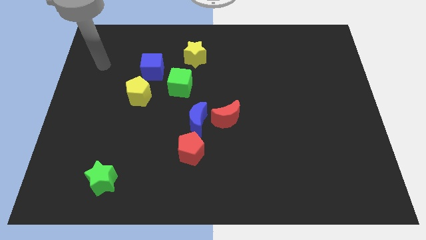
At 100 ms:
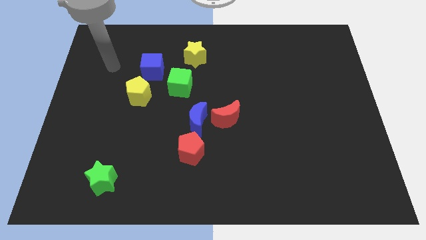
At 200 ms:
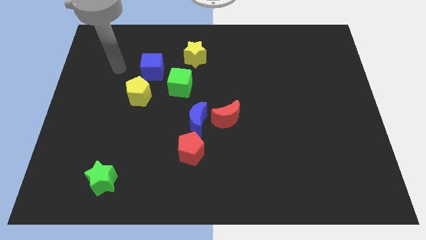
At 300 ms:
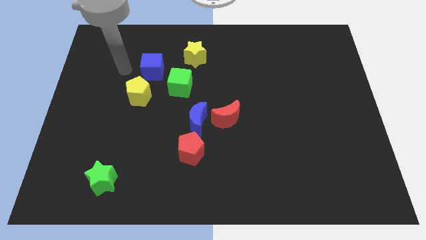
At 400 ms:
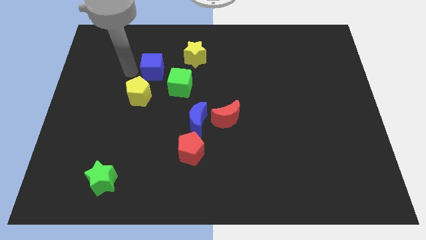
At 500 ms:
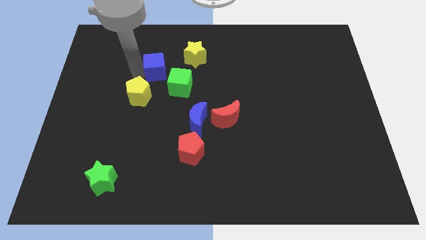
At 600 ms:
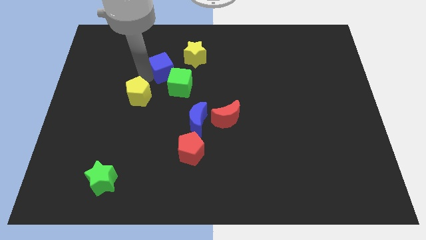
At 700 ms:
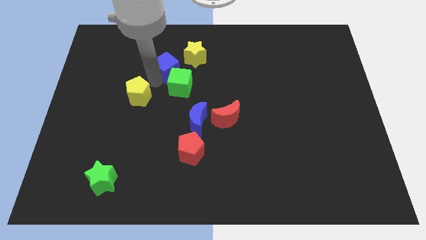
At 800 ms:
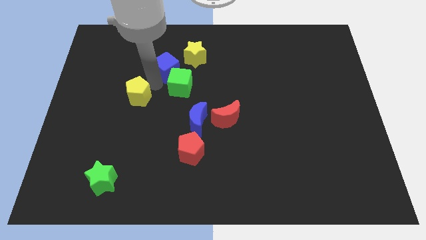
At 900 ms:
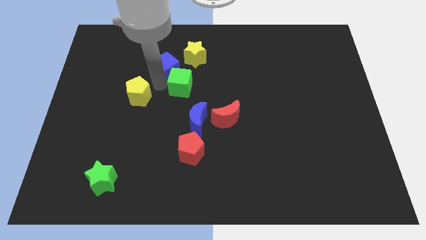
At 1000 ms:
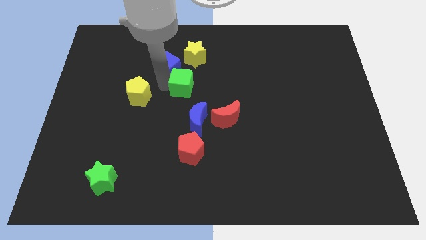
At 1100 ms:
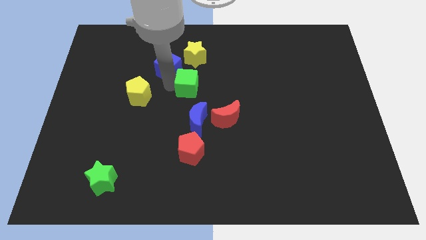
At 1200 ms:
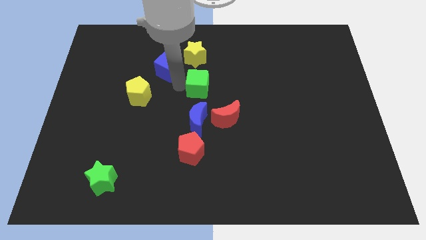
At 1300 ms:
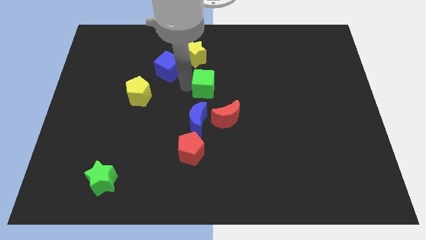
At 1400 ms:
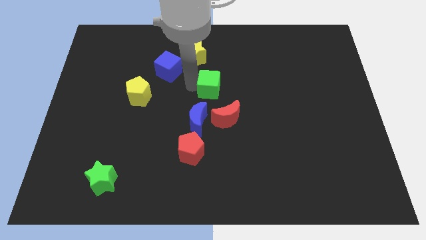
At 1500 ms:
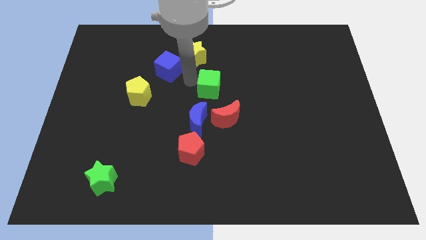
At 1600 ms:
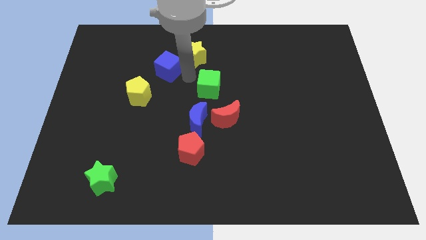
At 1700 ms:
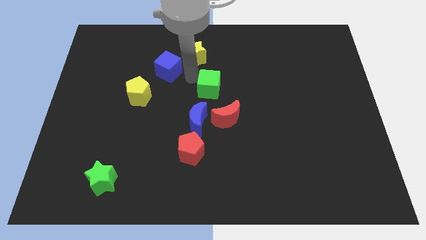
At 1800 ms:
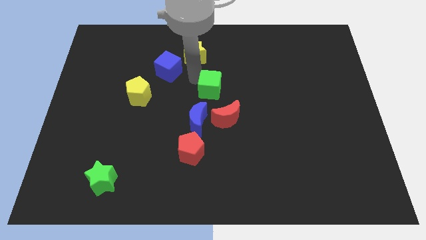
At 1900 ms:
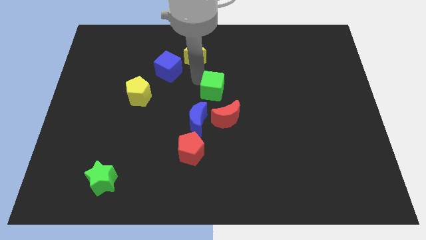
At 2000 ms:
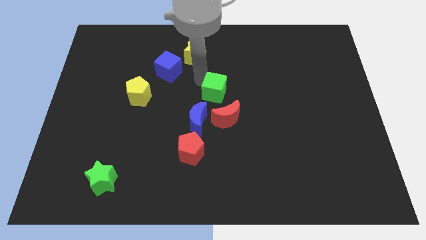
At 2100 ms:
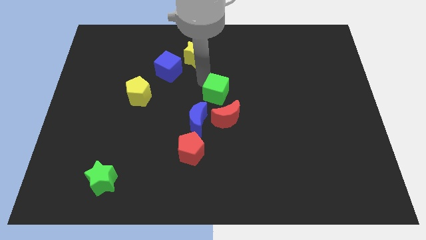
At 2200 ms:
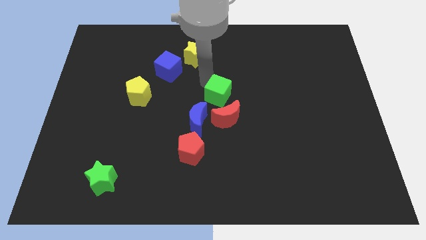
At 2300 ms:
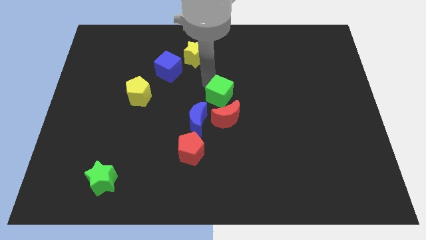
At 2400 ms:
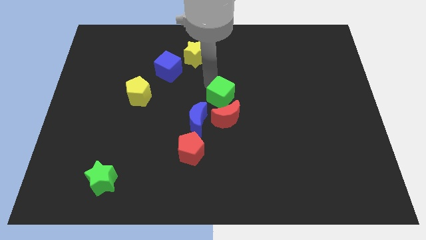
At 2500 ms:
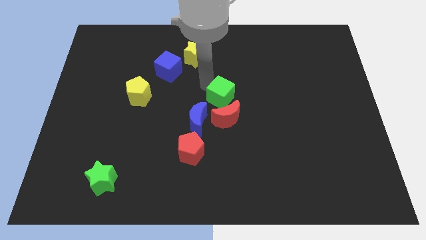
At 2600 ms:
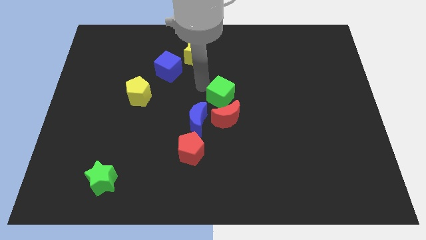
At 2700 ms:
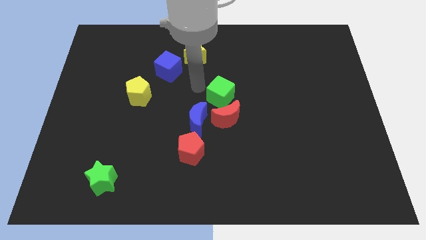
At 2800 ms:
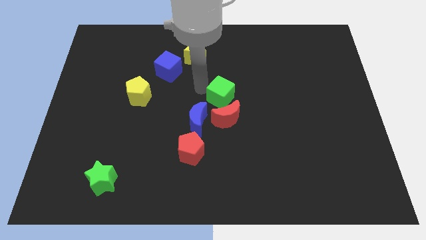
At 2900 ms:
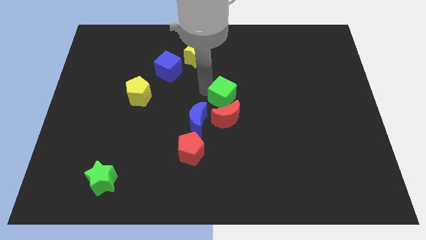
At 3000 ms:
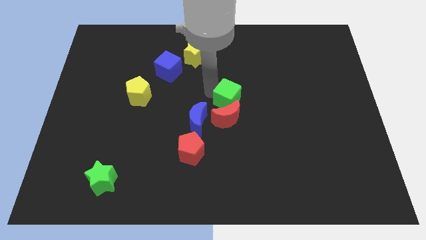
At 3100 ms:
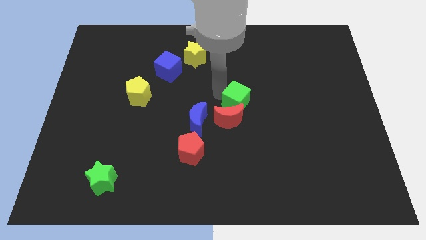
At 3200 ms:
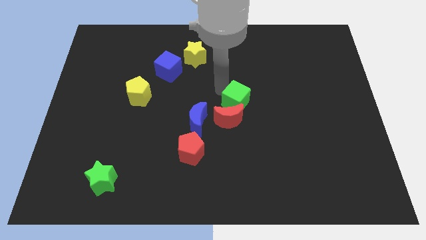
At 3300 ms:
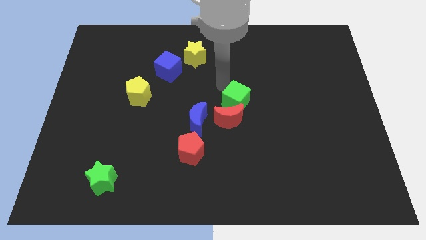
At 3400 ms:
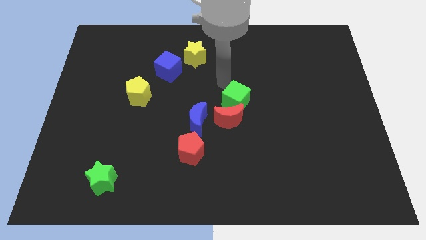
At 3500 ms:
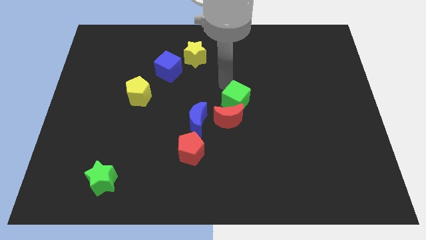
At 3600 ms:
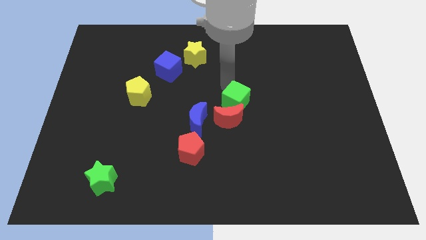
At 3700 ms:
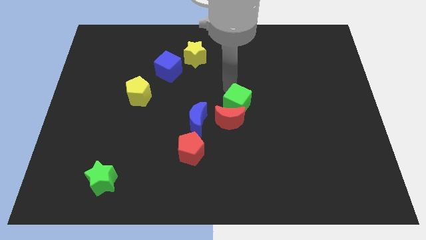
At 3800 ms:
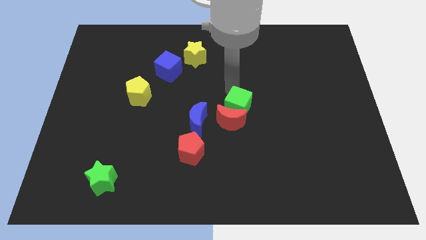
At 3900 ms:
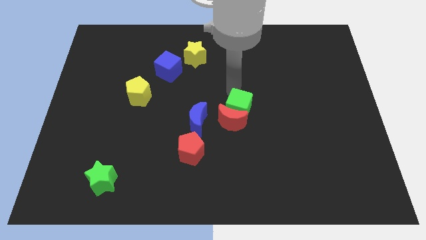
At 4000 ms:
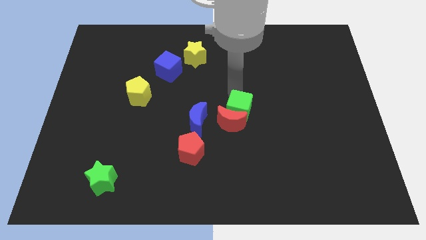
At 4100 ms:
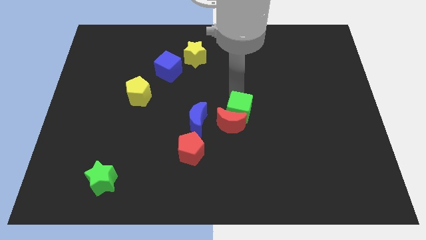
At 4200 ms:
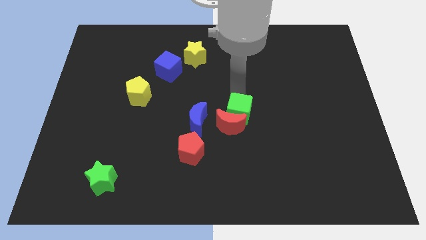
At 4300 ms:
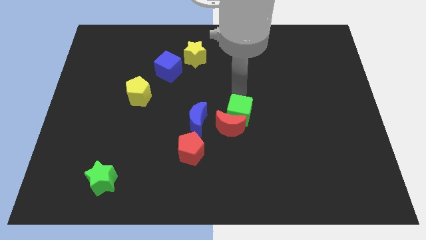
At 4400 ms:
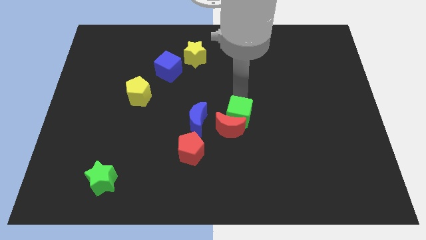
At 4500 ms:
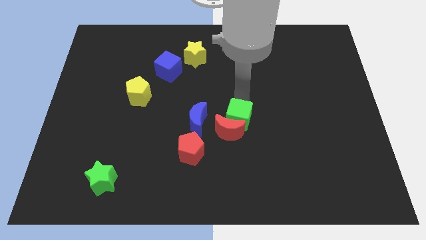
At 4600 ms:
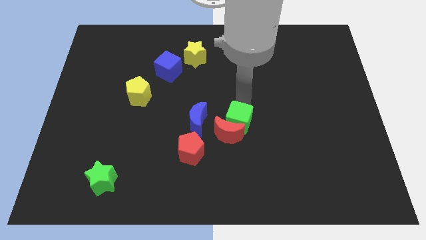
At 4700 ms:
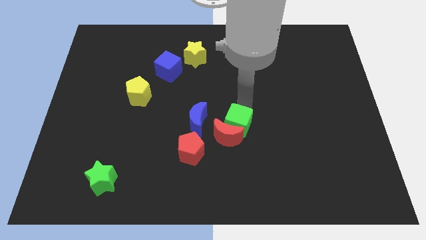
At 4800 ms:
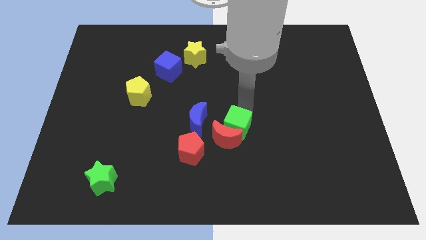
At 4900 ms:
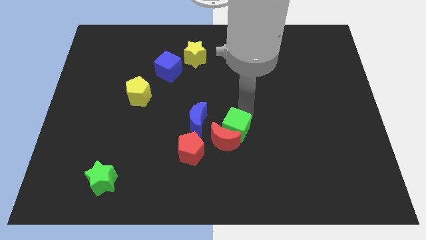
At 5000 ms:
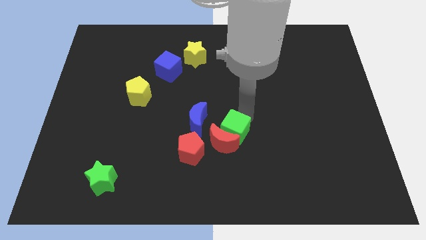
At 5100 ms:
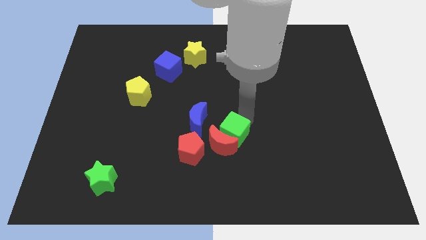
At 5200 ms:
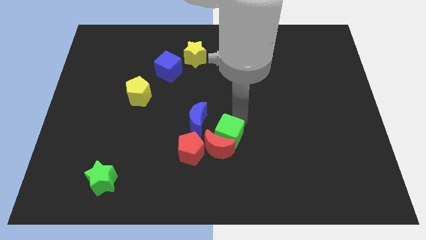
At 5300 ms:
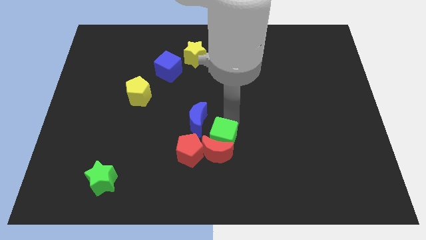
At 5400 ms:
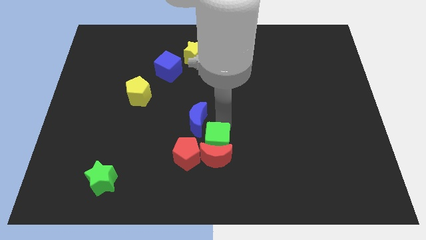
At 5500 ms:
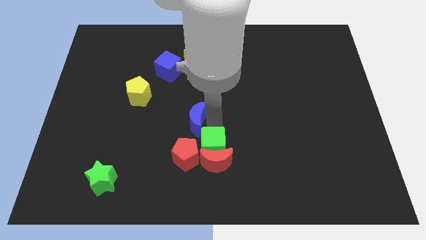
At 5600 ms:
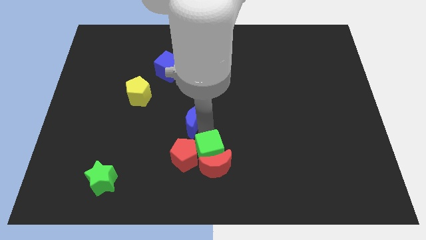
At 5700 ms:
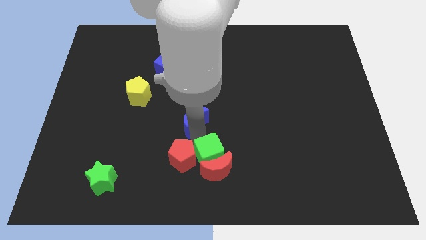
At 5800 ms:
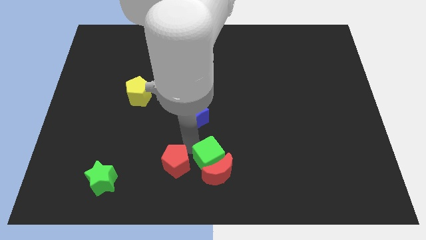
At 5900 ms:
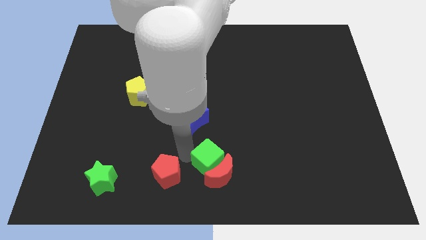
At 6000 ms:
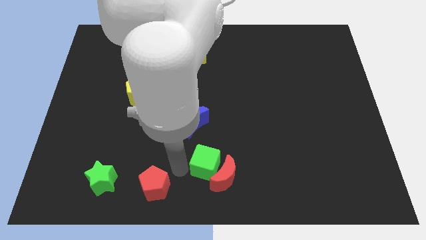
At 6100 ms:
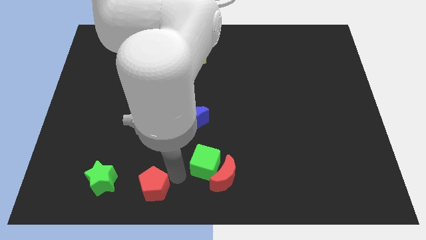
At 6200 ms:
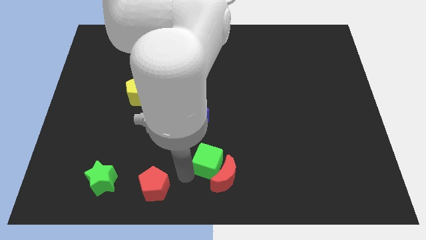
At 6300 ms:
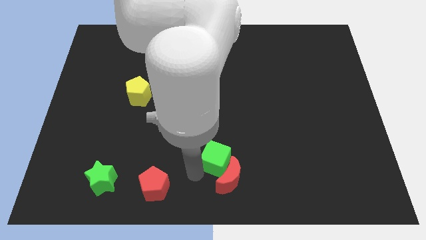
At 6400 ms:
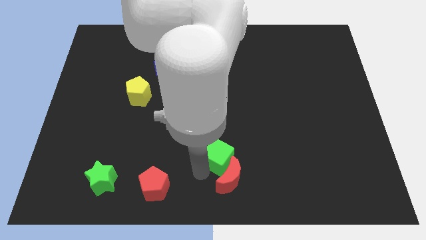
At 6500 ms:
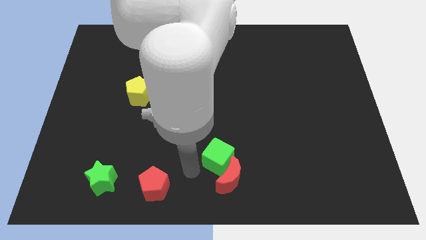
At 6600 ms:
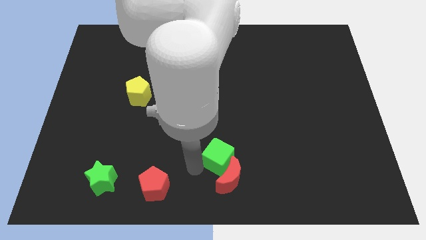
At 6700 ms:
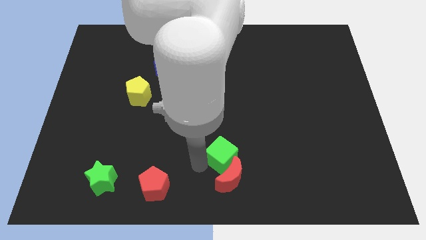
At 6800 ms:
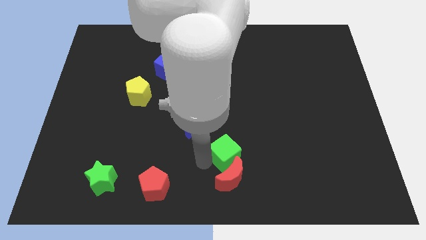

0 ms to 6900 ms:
slide the green cube down and right diagonally

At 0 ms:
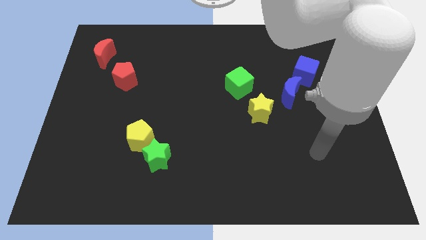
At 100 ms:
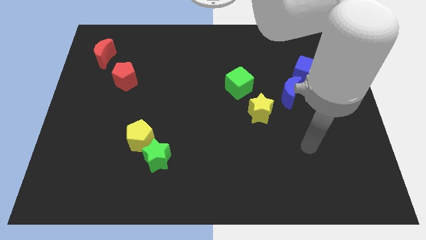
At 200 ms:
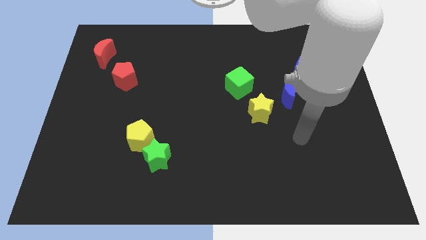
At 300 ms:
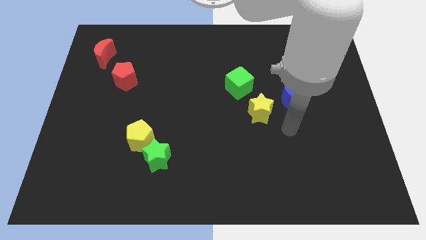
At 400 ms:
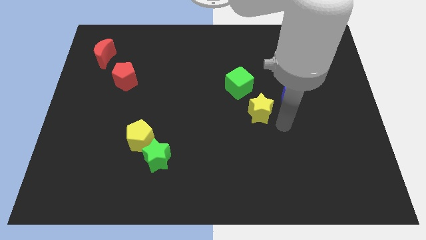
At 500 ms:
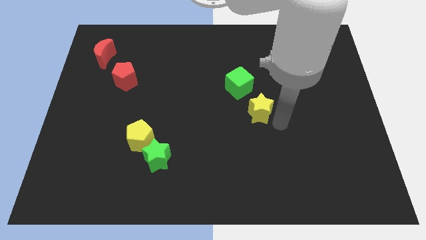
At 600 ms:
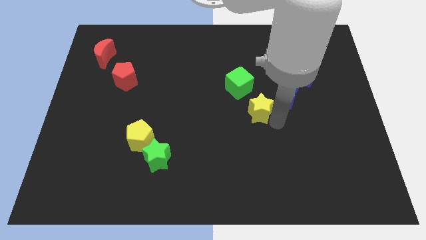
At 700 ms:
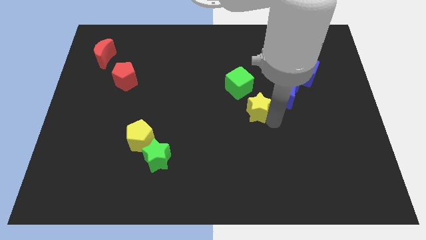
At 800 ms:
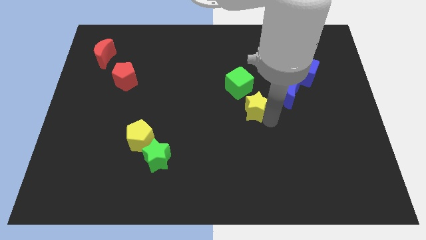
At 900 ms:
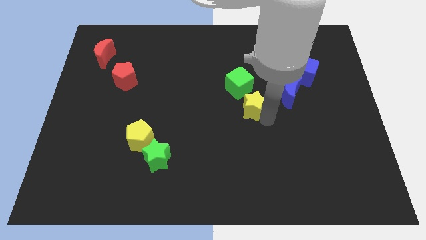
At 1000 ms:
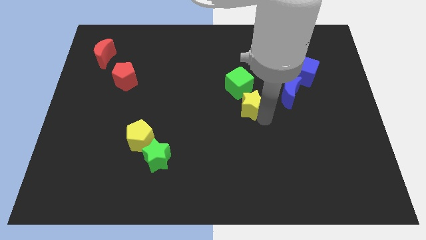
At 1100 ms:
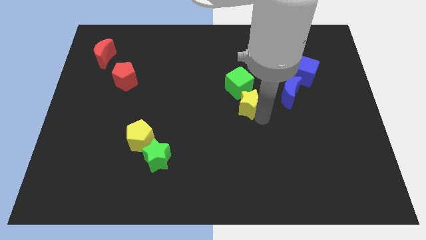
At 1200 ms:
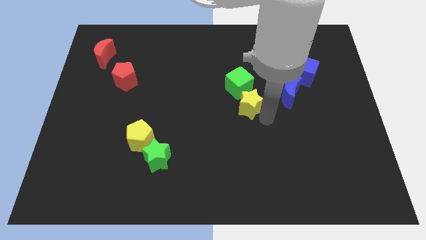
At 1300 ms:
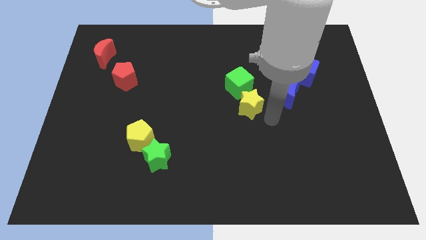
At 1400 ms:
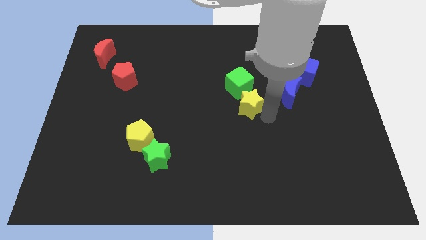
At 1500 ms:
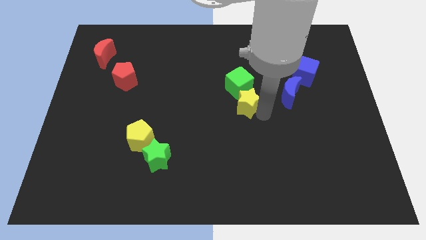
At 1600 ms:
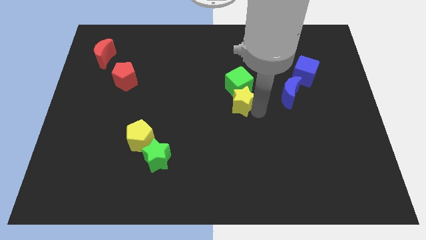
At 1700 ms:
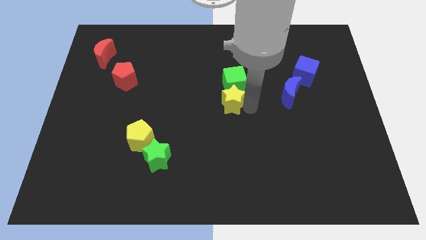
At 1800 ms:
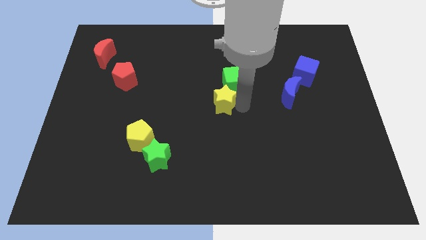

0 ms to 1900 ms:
slightly slide the yellow star up and left
